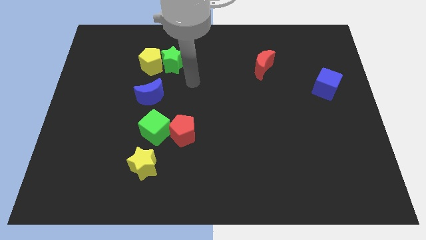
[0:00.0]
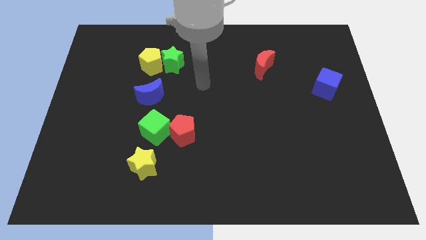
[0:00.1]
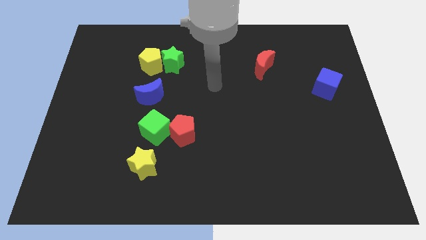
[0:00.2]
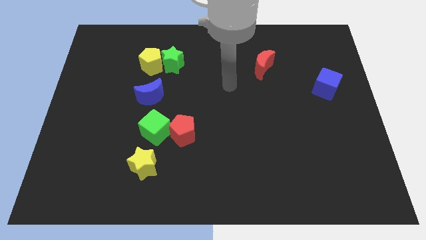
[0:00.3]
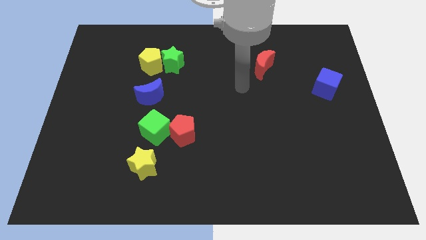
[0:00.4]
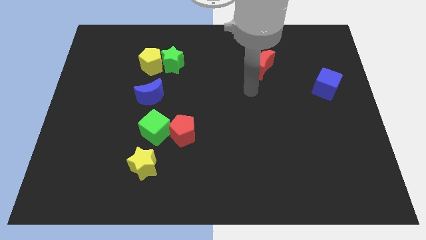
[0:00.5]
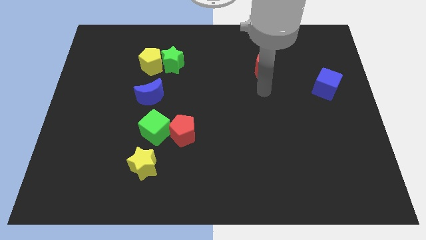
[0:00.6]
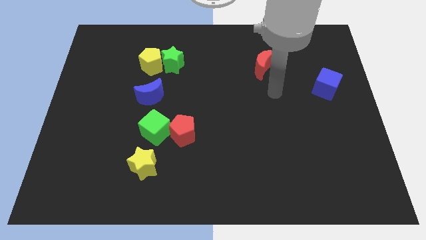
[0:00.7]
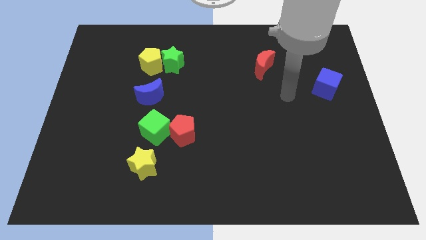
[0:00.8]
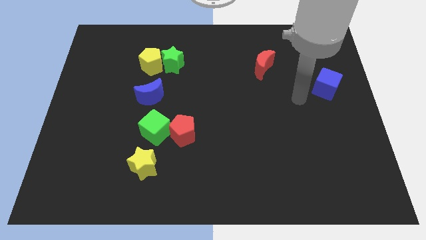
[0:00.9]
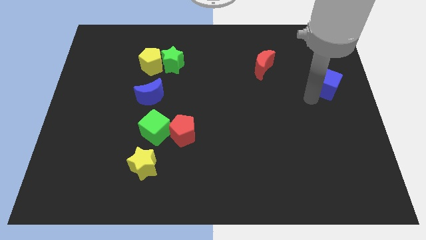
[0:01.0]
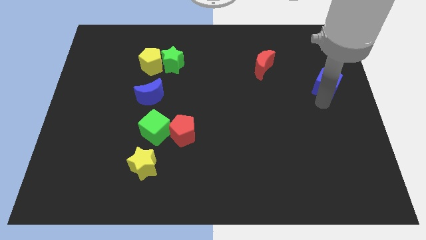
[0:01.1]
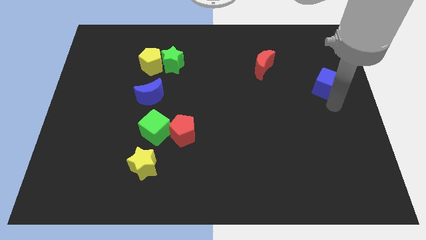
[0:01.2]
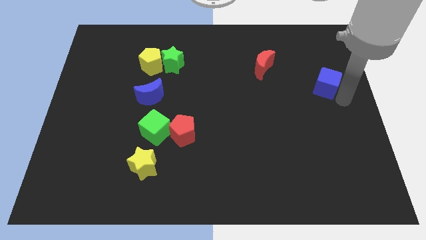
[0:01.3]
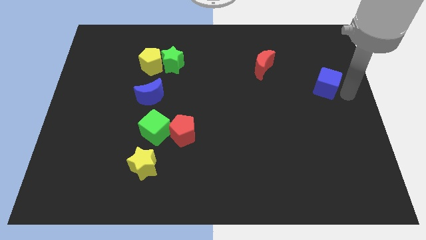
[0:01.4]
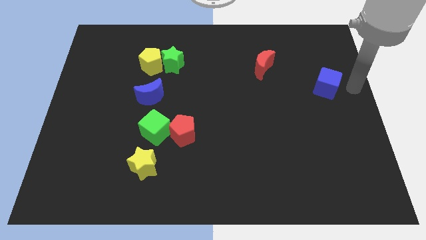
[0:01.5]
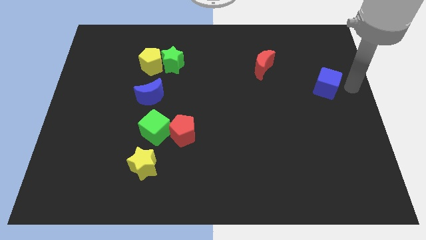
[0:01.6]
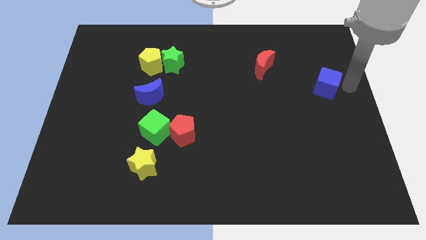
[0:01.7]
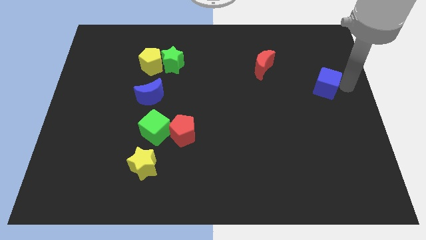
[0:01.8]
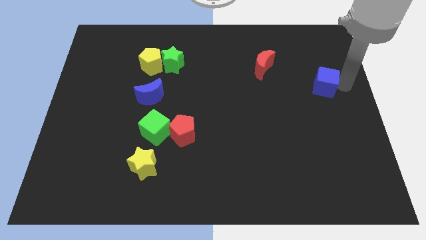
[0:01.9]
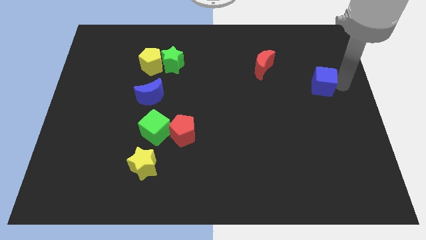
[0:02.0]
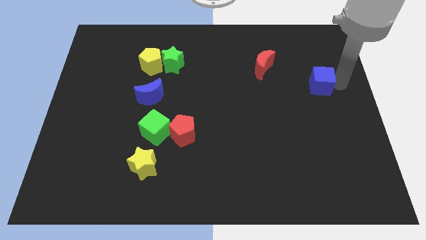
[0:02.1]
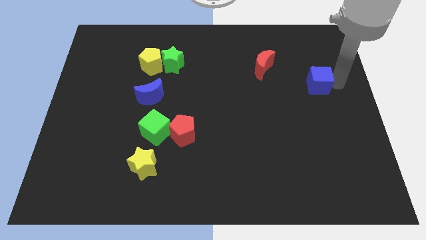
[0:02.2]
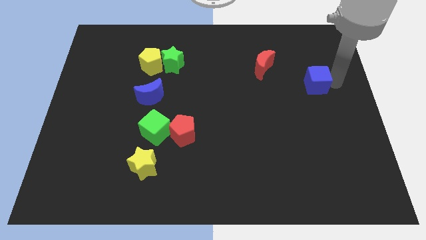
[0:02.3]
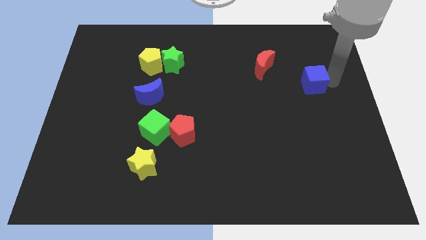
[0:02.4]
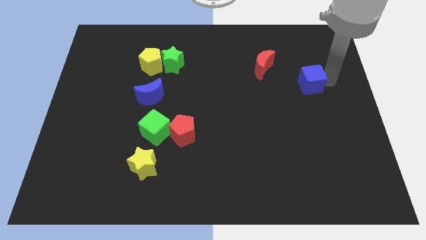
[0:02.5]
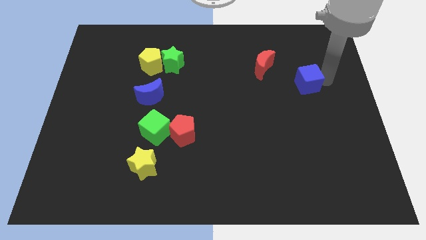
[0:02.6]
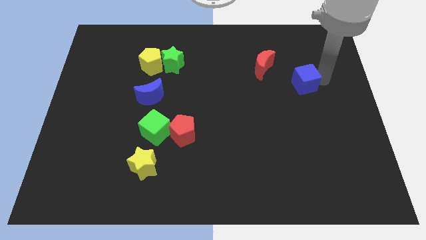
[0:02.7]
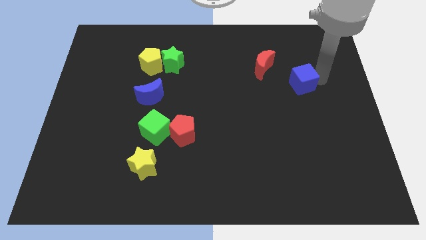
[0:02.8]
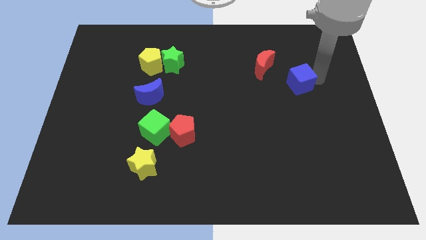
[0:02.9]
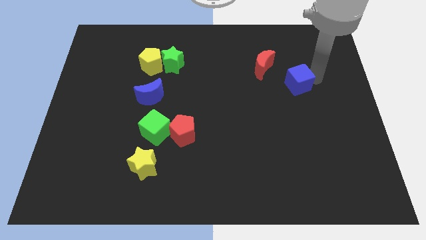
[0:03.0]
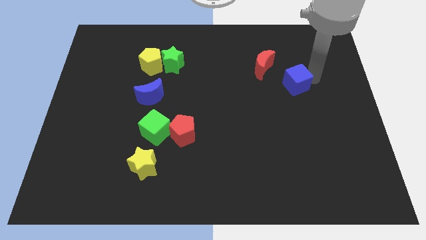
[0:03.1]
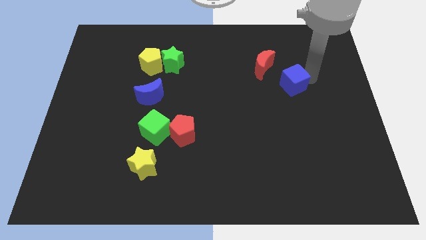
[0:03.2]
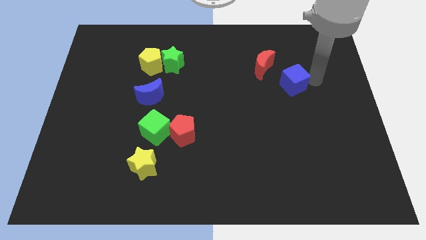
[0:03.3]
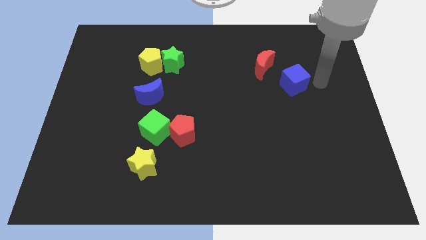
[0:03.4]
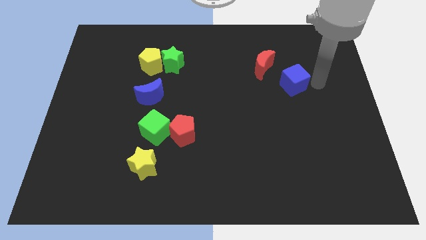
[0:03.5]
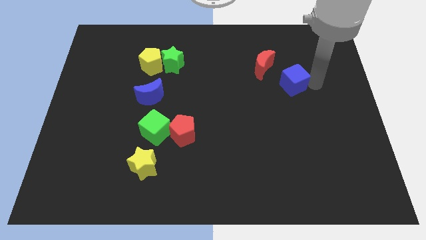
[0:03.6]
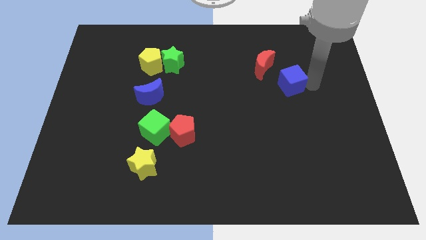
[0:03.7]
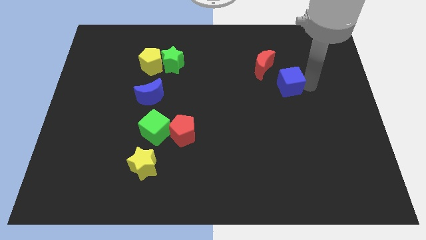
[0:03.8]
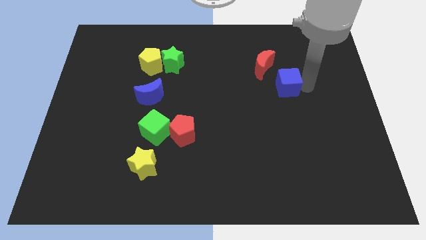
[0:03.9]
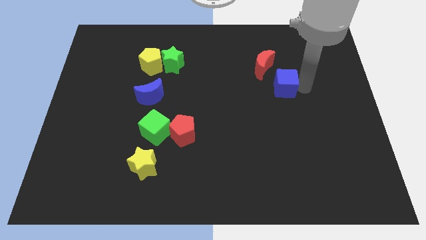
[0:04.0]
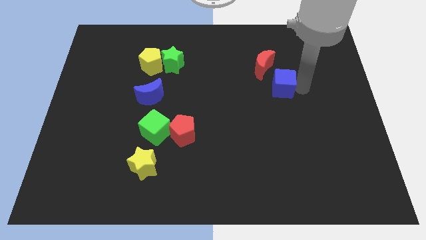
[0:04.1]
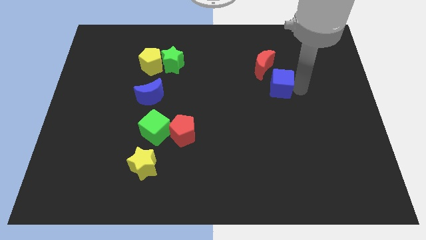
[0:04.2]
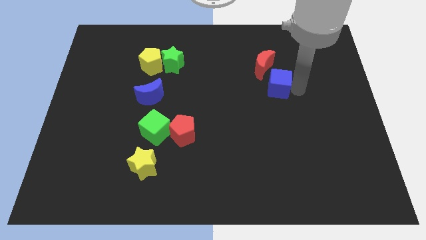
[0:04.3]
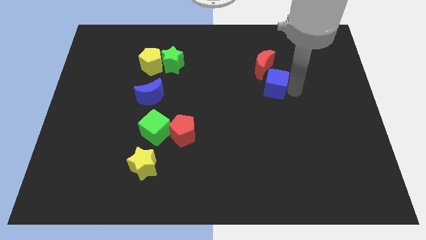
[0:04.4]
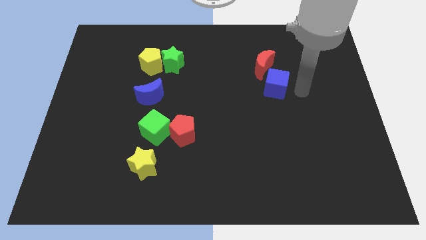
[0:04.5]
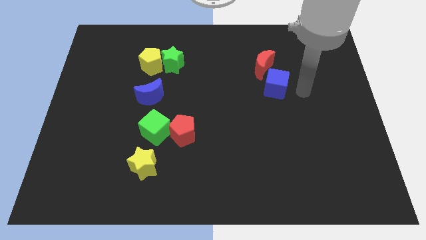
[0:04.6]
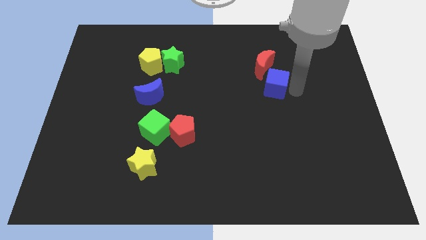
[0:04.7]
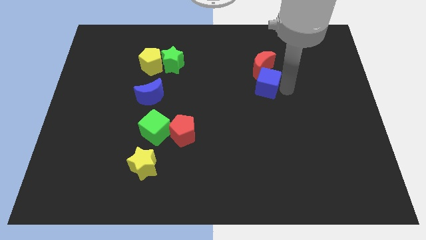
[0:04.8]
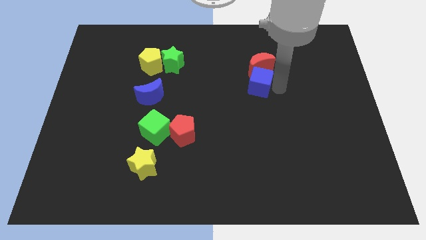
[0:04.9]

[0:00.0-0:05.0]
move the blue cube to the bottom left of the red moon

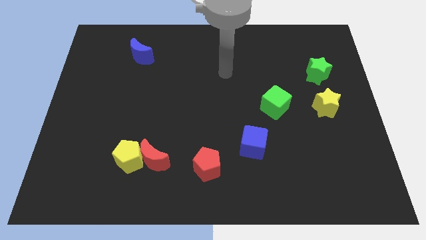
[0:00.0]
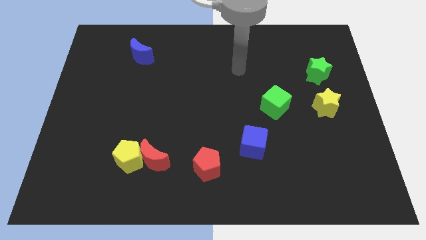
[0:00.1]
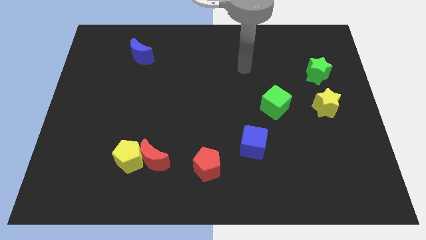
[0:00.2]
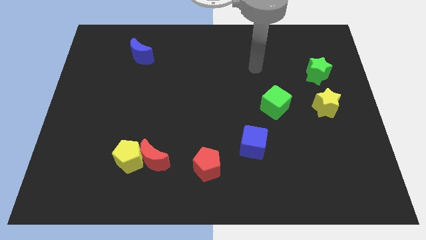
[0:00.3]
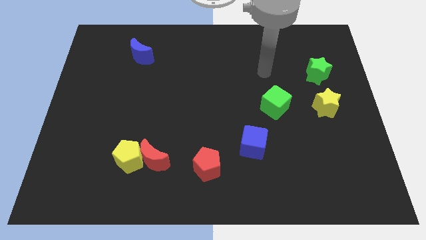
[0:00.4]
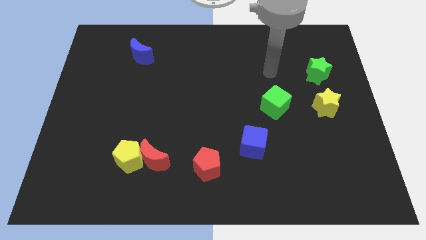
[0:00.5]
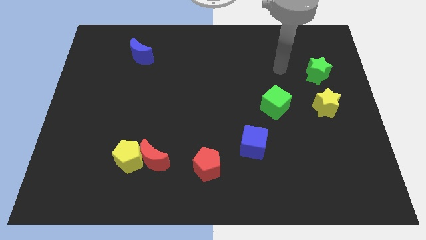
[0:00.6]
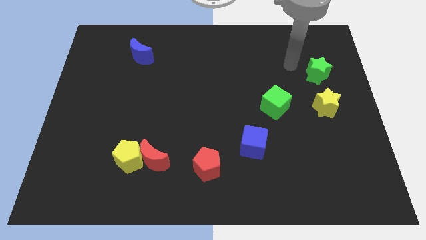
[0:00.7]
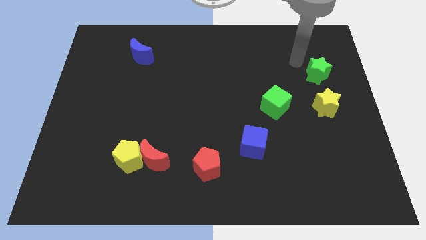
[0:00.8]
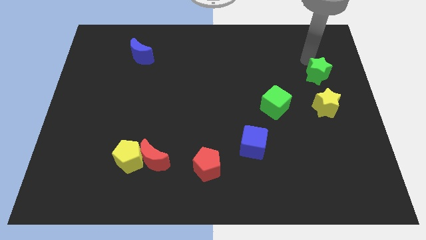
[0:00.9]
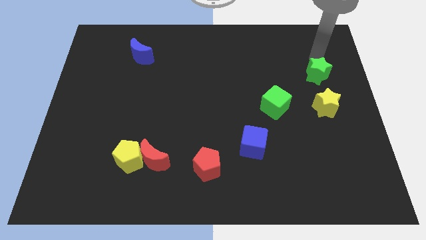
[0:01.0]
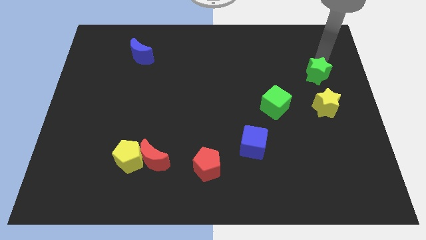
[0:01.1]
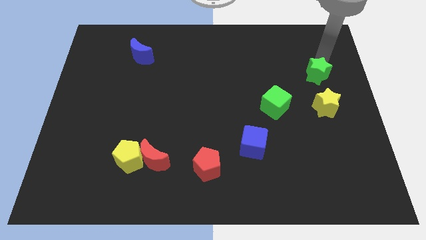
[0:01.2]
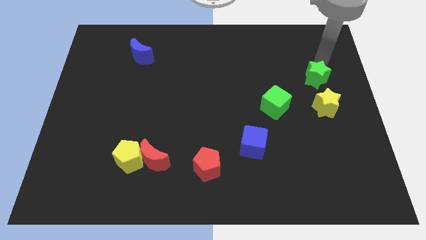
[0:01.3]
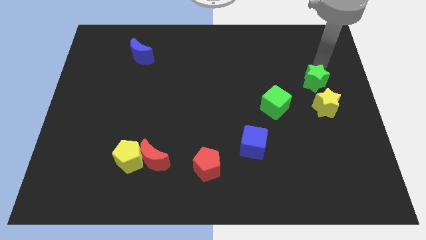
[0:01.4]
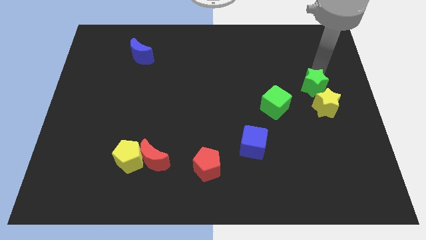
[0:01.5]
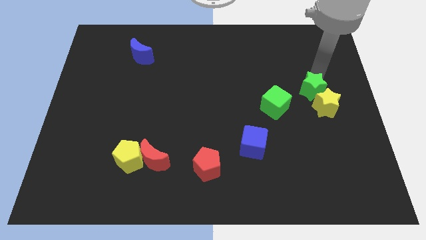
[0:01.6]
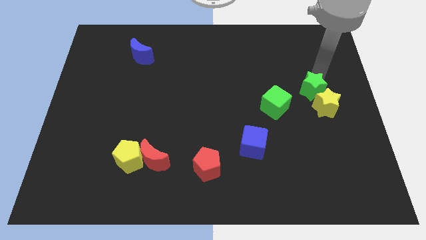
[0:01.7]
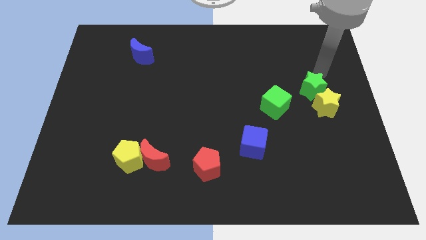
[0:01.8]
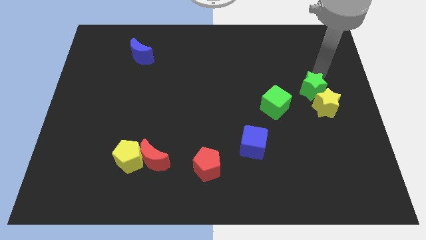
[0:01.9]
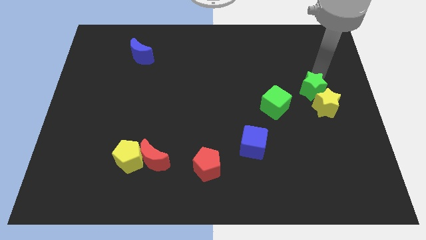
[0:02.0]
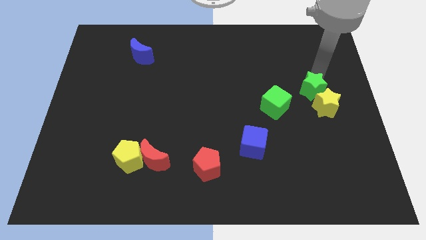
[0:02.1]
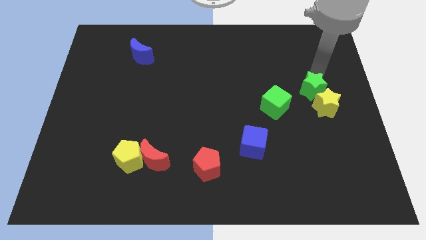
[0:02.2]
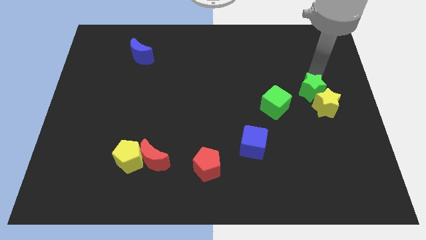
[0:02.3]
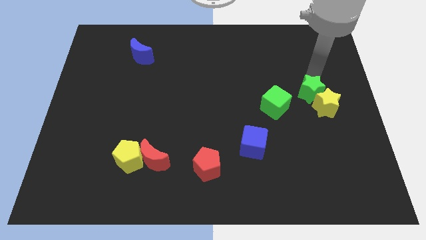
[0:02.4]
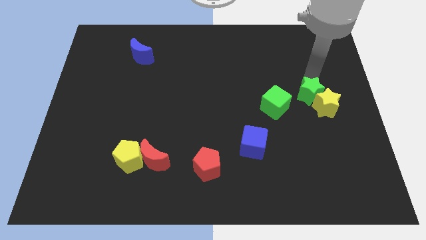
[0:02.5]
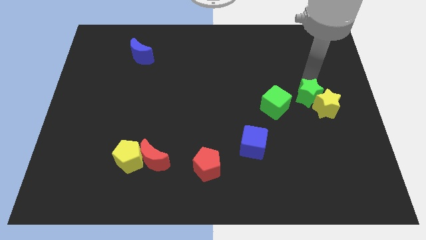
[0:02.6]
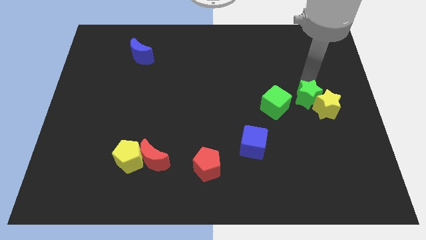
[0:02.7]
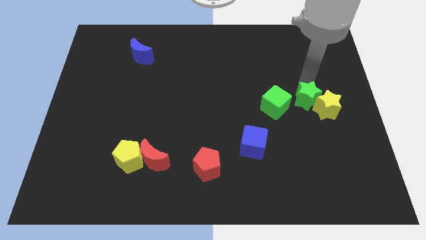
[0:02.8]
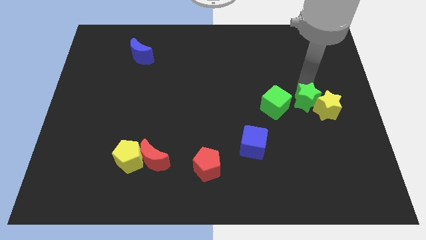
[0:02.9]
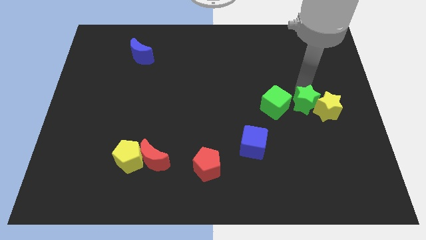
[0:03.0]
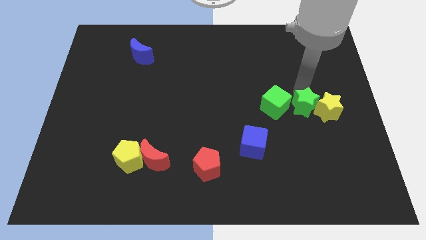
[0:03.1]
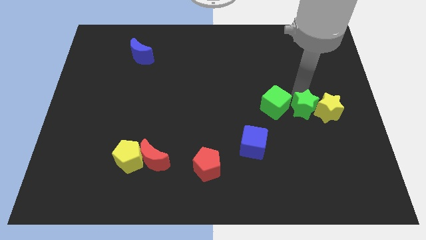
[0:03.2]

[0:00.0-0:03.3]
push the green star diagonally down and to the left of the yellow star
